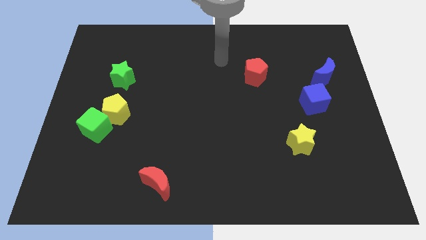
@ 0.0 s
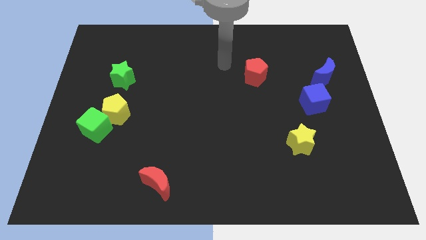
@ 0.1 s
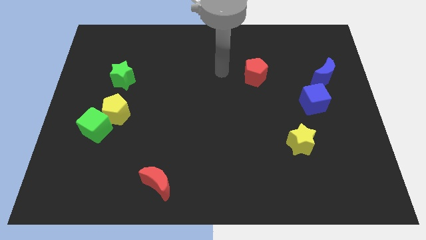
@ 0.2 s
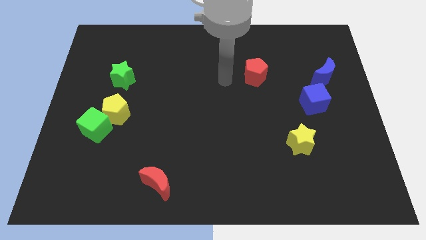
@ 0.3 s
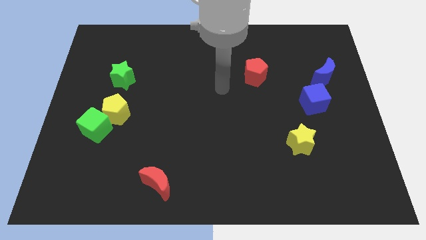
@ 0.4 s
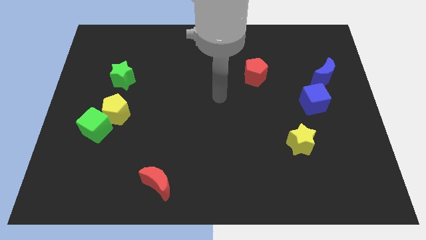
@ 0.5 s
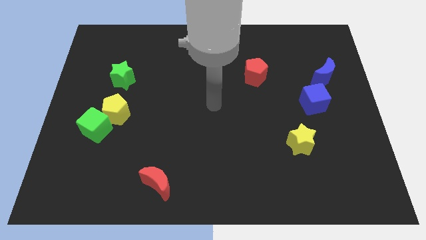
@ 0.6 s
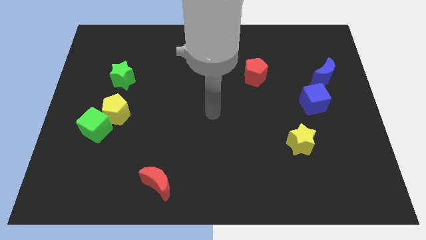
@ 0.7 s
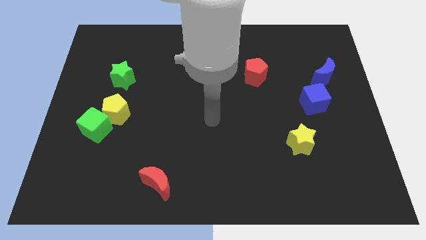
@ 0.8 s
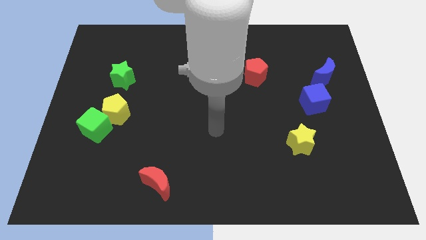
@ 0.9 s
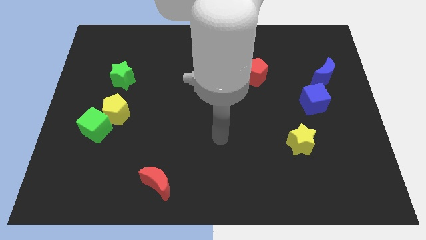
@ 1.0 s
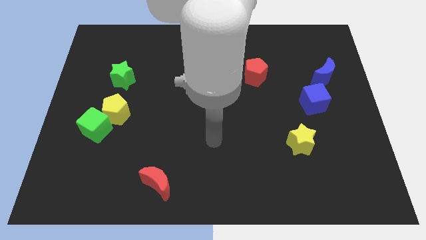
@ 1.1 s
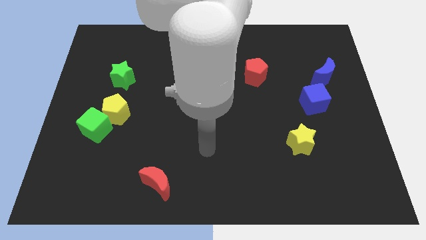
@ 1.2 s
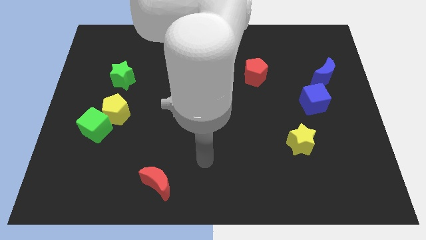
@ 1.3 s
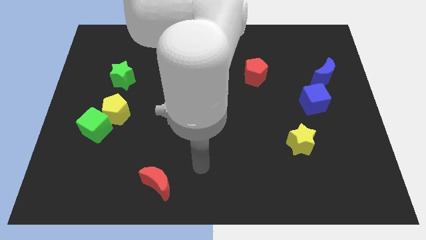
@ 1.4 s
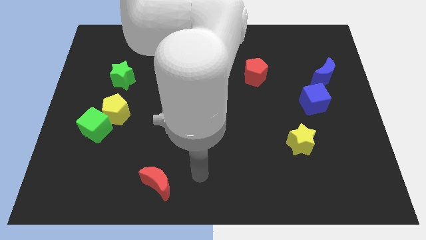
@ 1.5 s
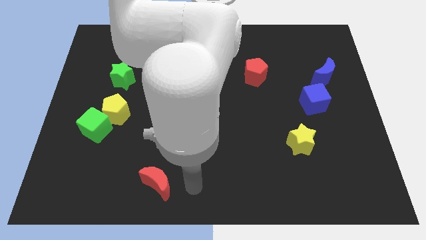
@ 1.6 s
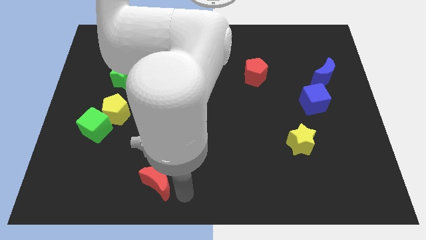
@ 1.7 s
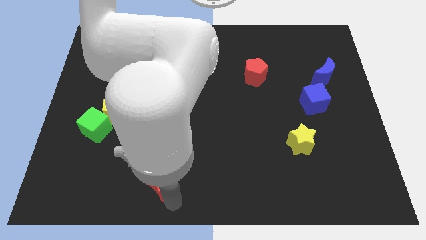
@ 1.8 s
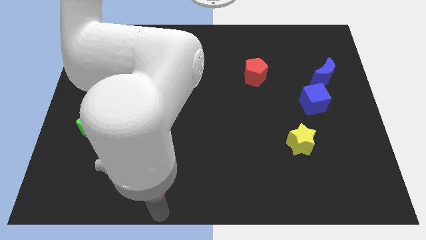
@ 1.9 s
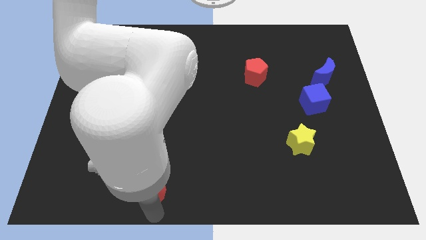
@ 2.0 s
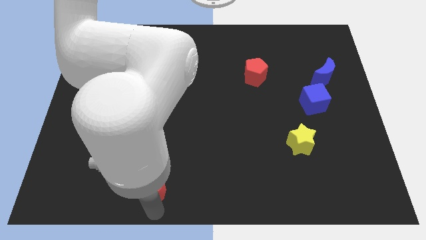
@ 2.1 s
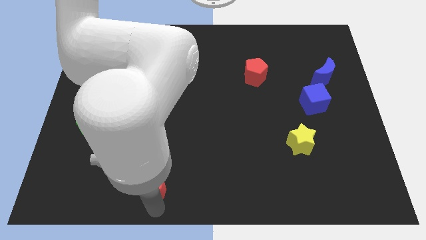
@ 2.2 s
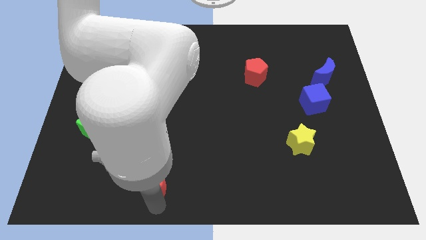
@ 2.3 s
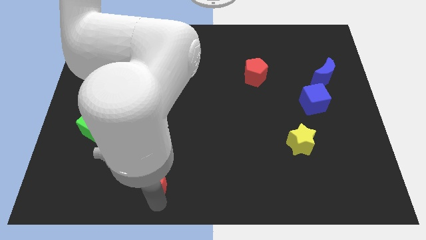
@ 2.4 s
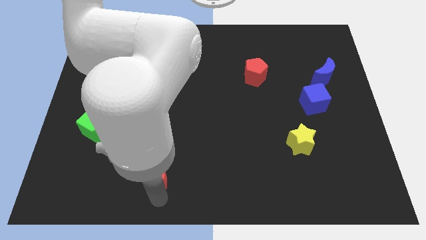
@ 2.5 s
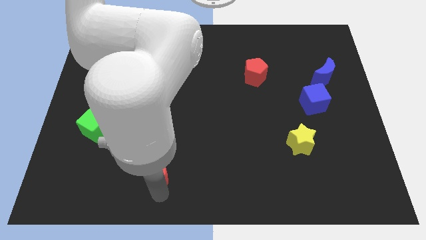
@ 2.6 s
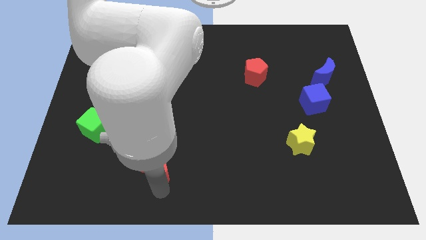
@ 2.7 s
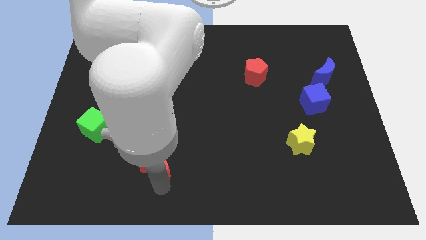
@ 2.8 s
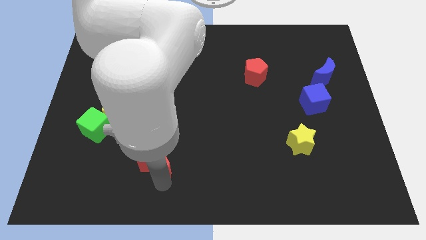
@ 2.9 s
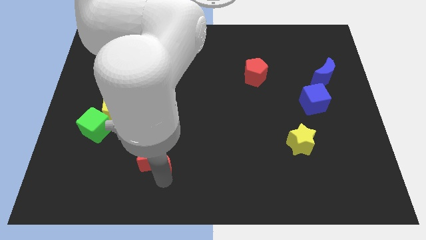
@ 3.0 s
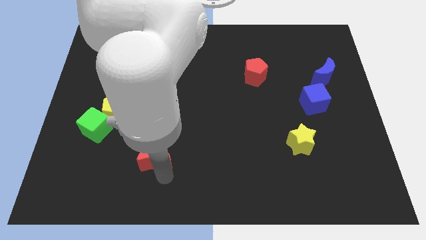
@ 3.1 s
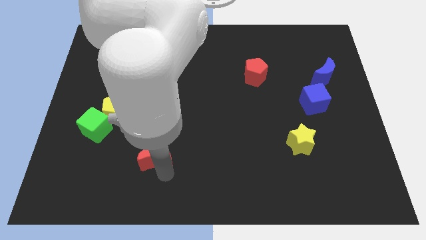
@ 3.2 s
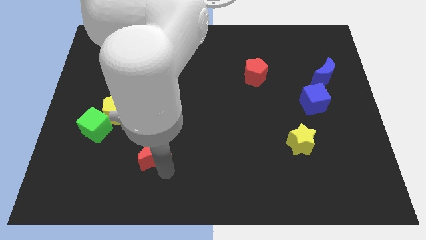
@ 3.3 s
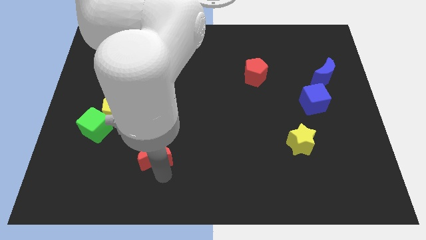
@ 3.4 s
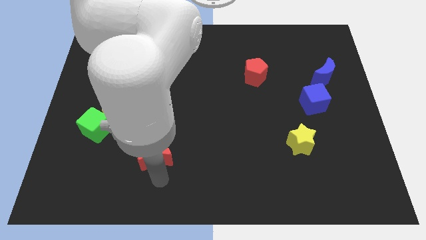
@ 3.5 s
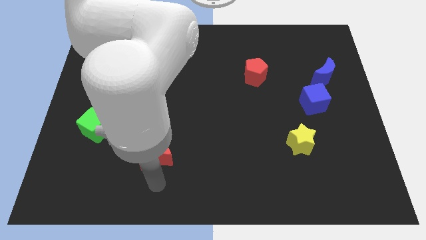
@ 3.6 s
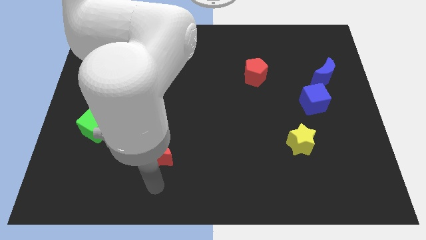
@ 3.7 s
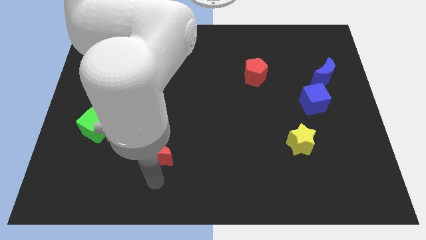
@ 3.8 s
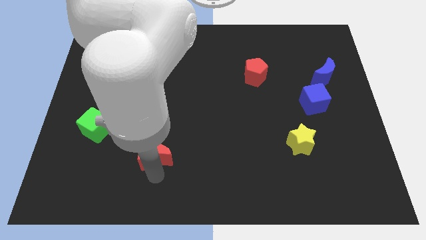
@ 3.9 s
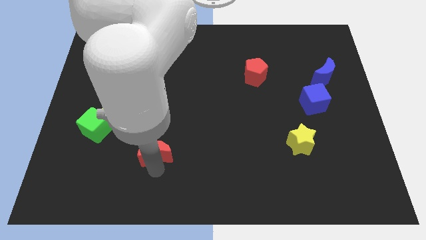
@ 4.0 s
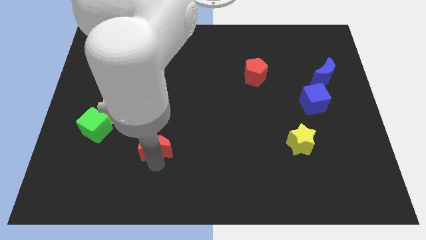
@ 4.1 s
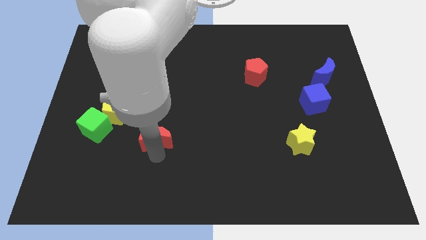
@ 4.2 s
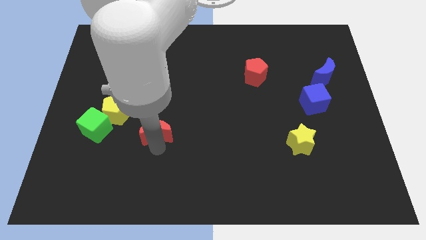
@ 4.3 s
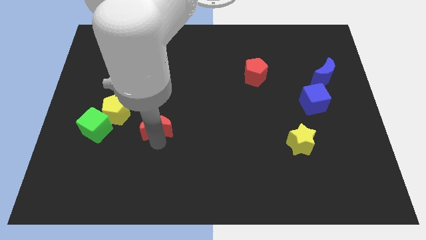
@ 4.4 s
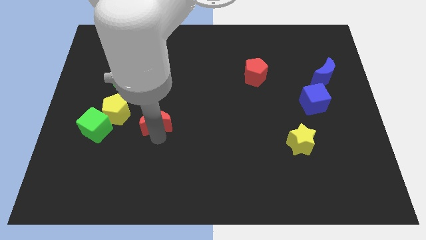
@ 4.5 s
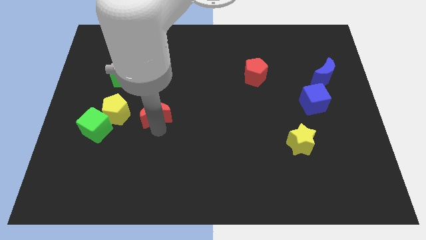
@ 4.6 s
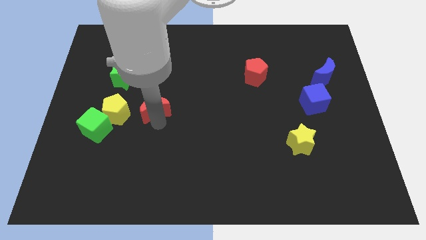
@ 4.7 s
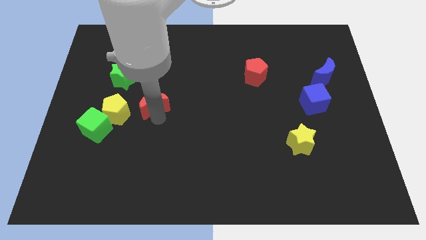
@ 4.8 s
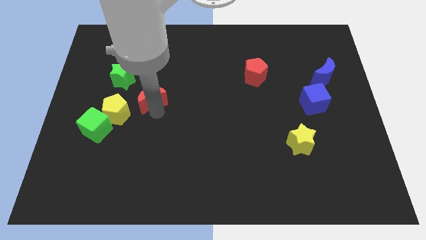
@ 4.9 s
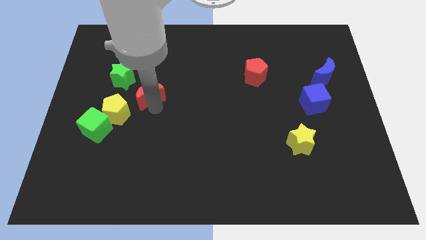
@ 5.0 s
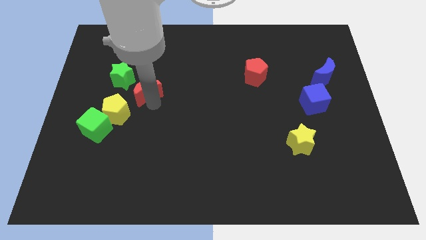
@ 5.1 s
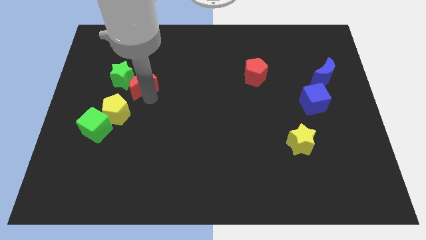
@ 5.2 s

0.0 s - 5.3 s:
slide the red moon above the yellow pentagon
